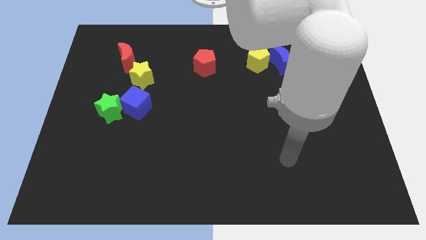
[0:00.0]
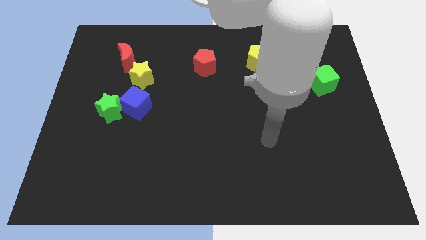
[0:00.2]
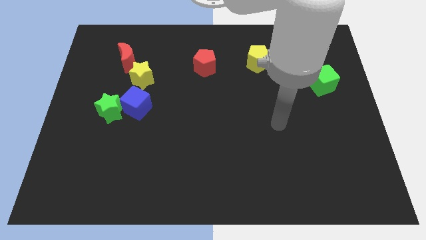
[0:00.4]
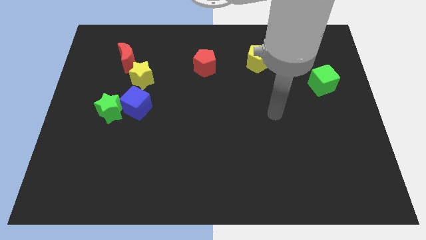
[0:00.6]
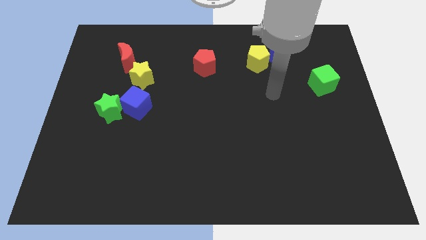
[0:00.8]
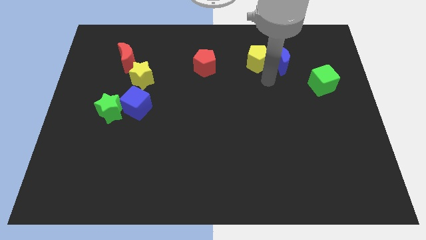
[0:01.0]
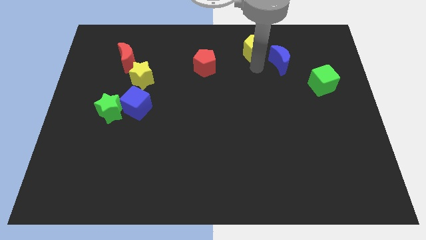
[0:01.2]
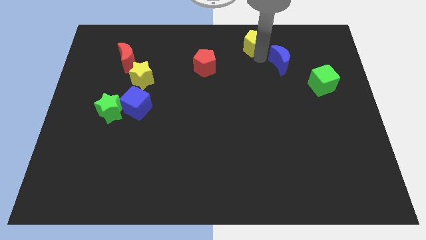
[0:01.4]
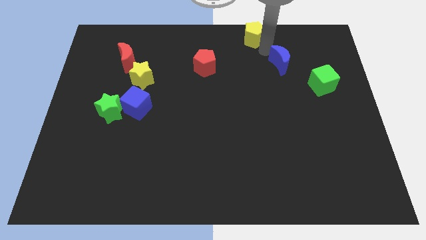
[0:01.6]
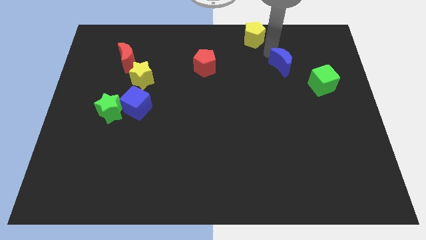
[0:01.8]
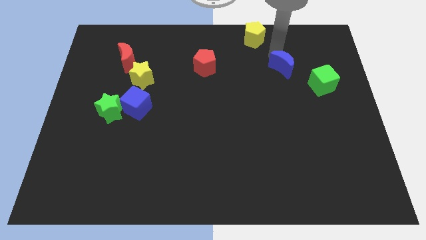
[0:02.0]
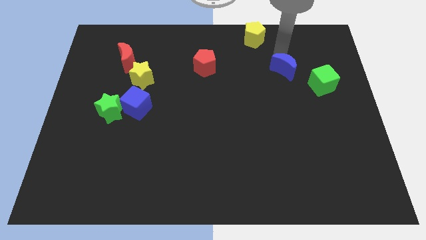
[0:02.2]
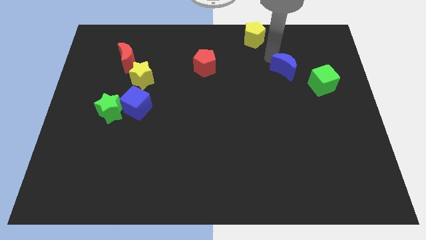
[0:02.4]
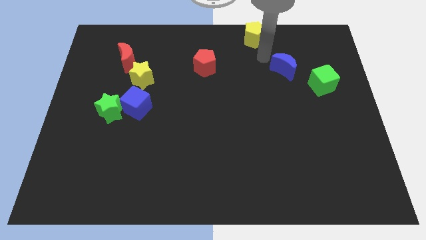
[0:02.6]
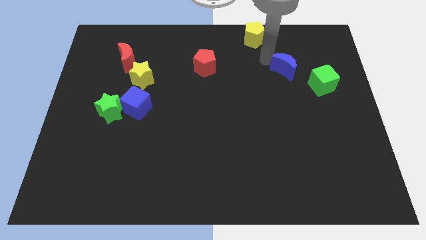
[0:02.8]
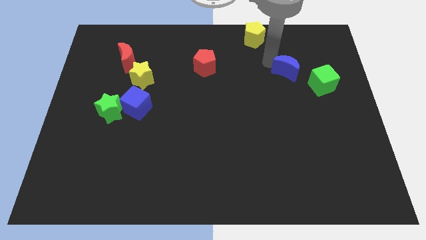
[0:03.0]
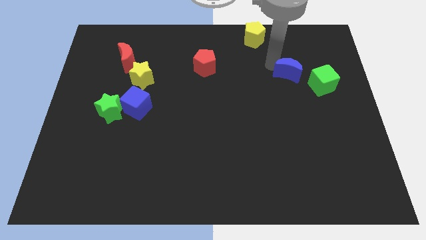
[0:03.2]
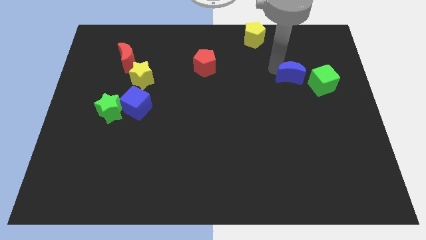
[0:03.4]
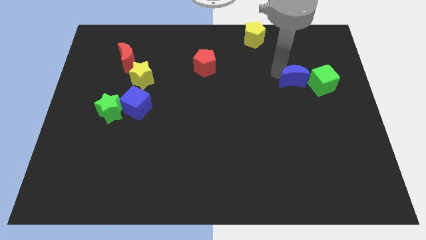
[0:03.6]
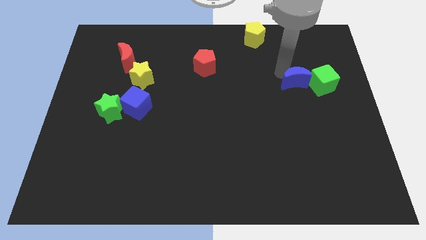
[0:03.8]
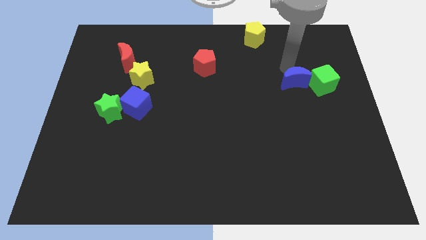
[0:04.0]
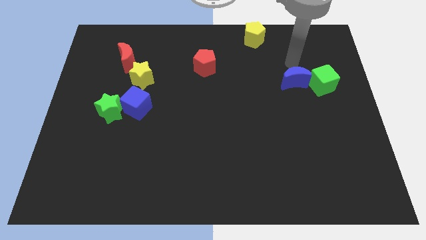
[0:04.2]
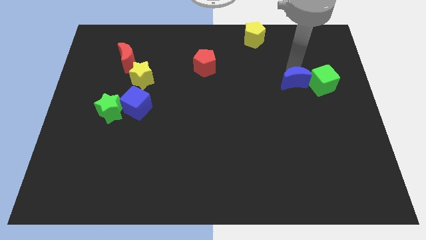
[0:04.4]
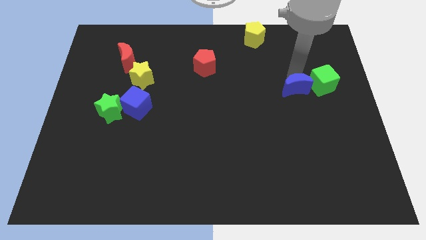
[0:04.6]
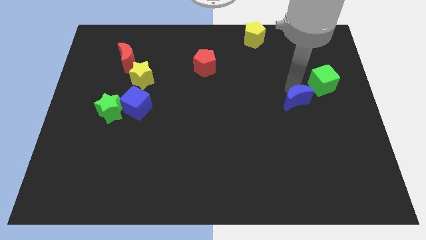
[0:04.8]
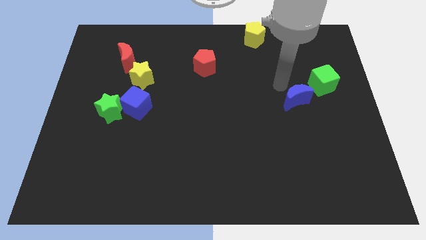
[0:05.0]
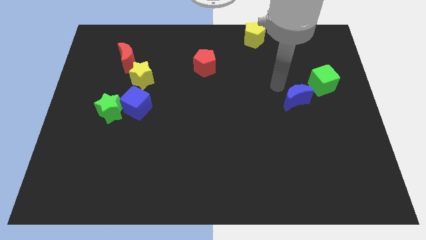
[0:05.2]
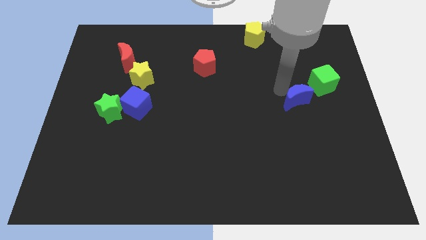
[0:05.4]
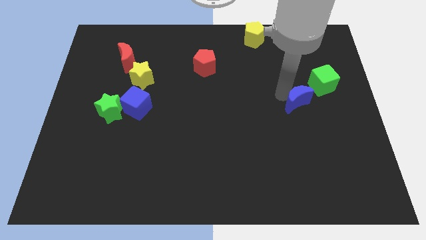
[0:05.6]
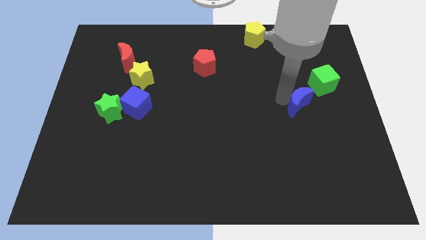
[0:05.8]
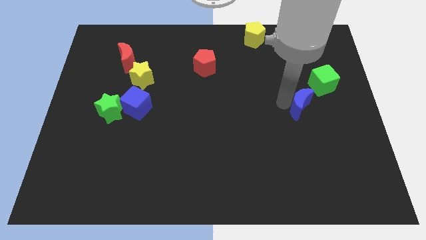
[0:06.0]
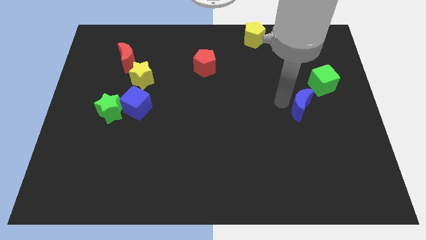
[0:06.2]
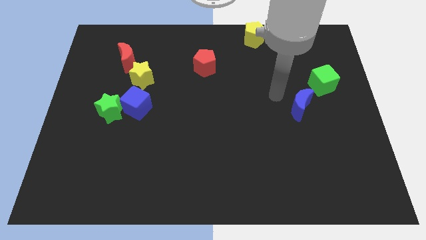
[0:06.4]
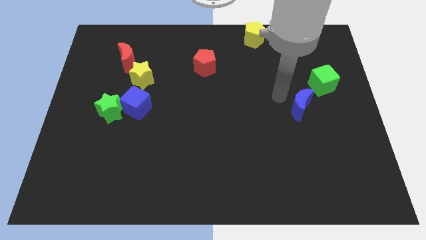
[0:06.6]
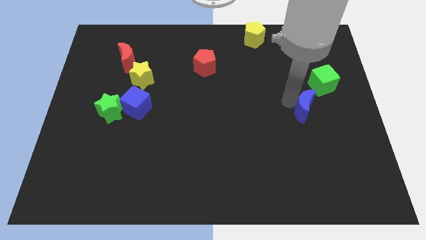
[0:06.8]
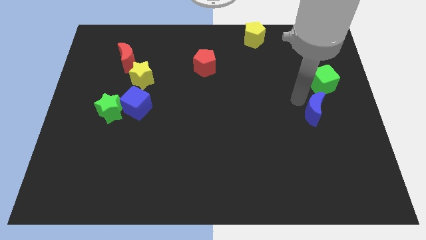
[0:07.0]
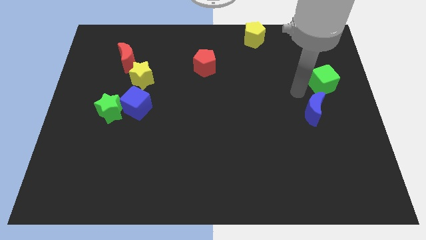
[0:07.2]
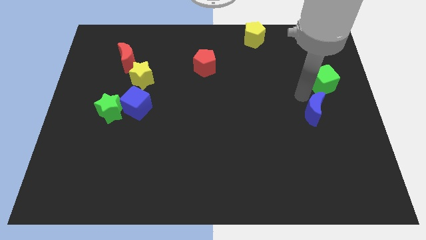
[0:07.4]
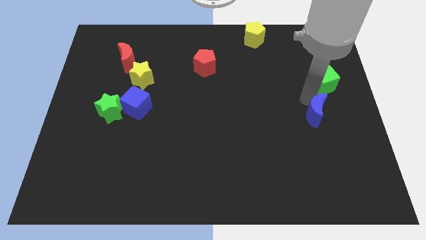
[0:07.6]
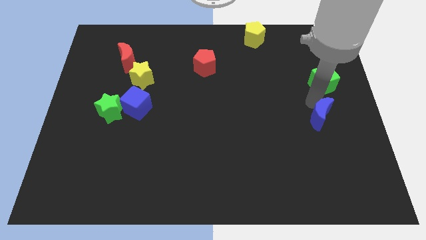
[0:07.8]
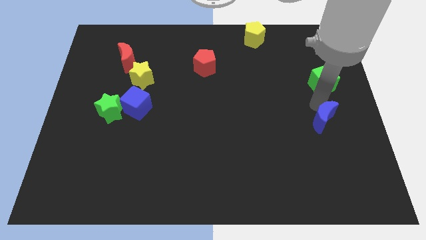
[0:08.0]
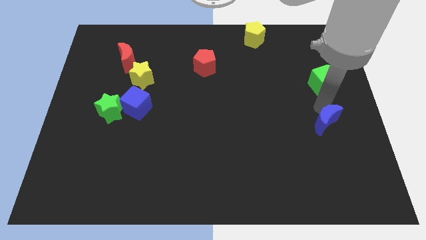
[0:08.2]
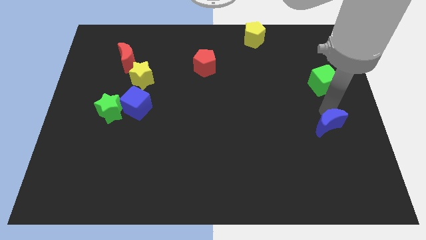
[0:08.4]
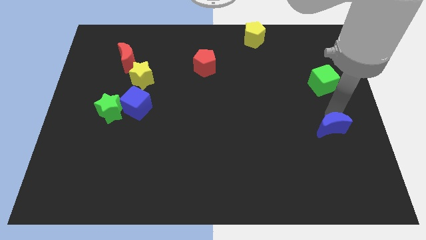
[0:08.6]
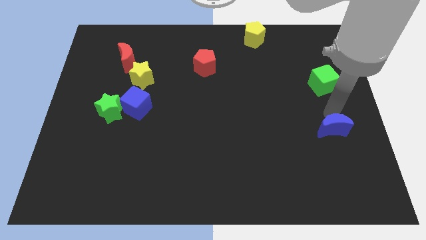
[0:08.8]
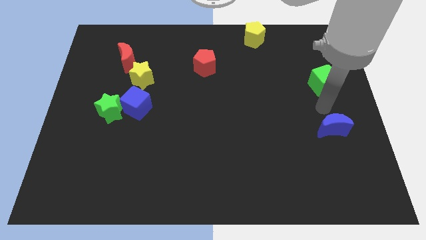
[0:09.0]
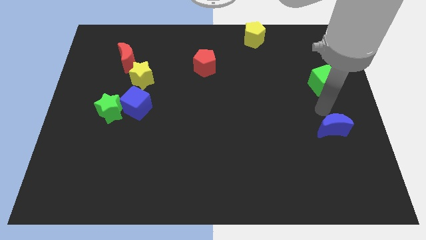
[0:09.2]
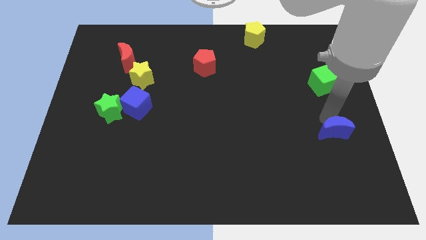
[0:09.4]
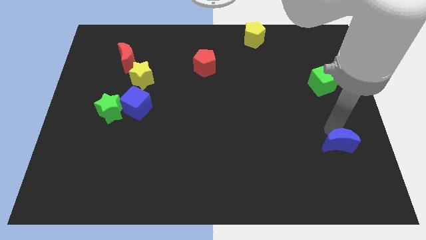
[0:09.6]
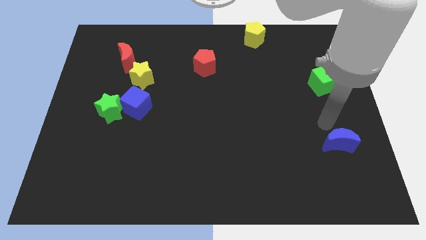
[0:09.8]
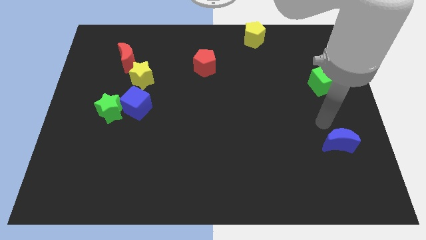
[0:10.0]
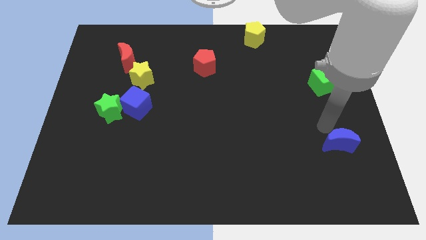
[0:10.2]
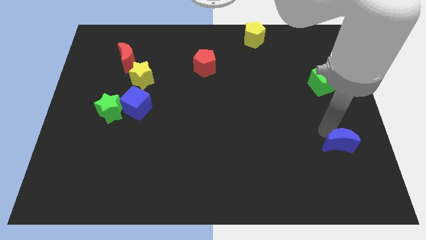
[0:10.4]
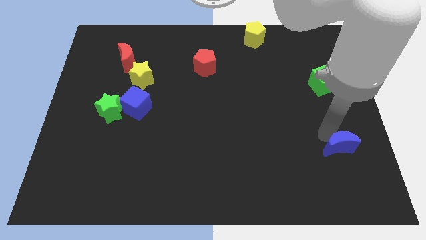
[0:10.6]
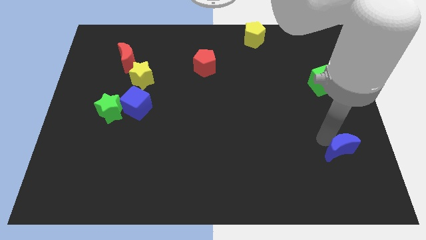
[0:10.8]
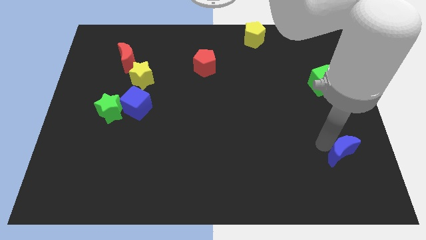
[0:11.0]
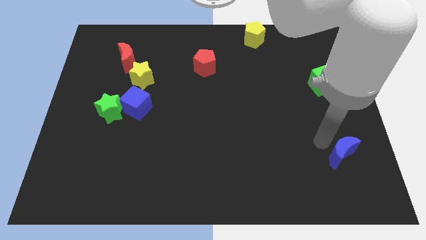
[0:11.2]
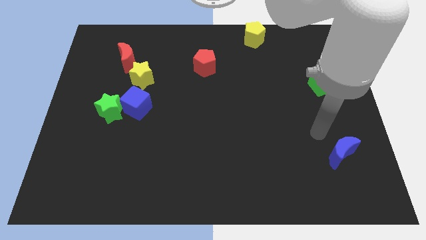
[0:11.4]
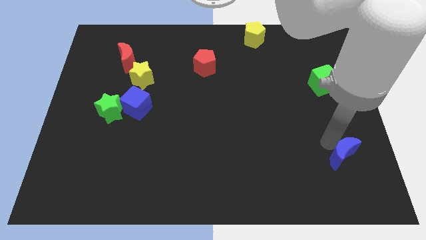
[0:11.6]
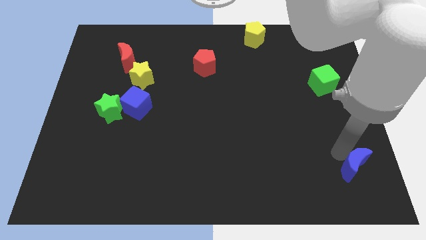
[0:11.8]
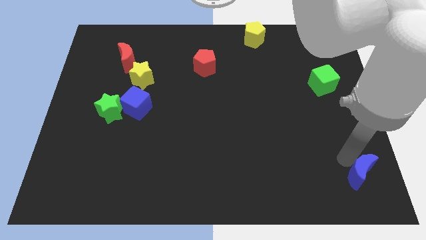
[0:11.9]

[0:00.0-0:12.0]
slide the blue moon to the bottom right corner
